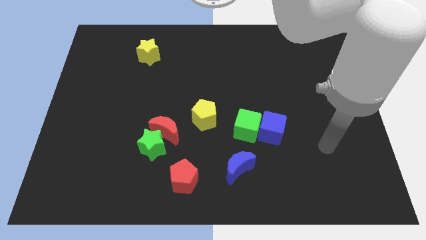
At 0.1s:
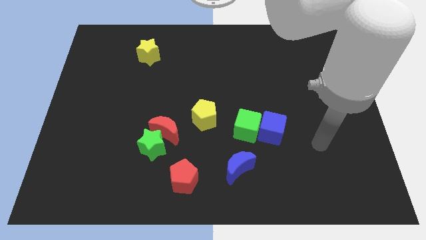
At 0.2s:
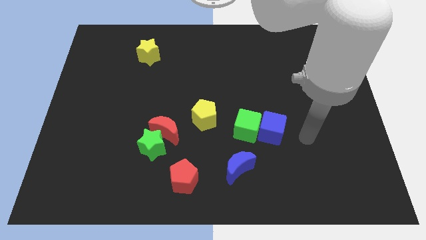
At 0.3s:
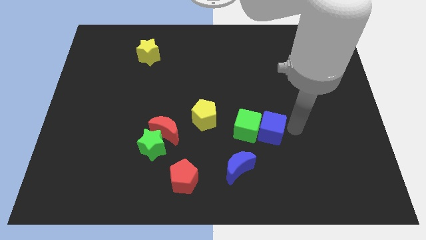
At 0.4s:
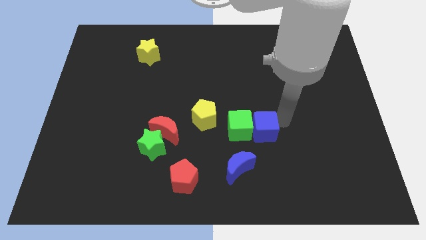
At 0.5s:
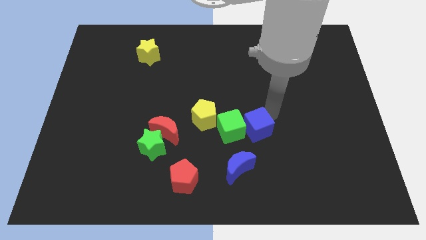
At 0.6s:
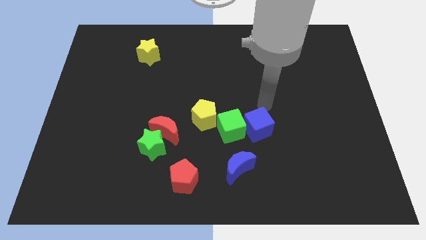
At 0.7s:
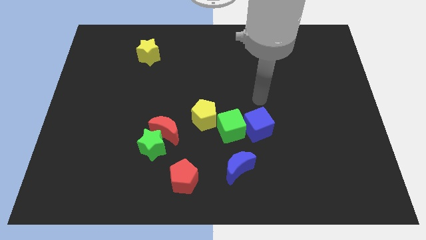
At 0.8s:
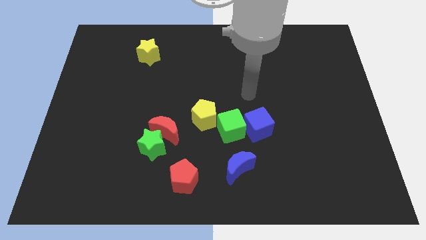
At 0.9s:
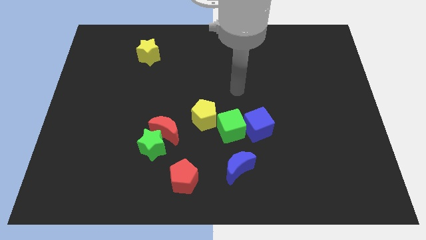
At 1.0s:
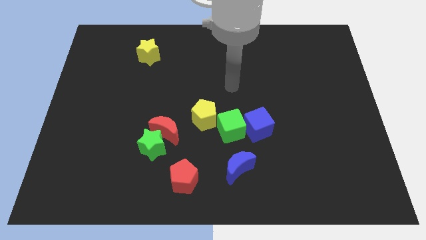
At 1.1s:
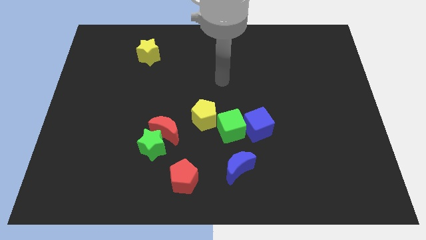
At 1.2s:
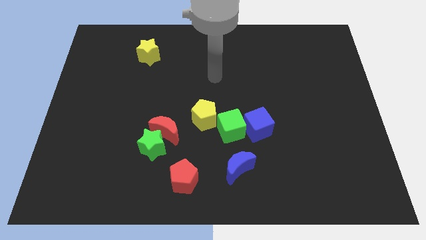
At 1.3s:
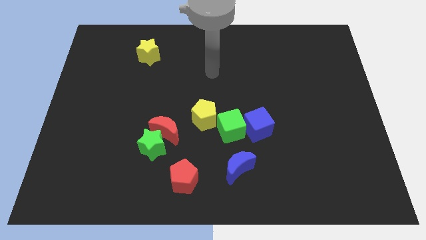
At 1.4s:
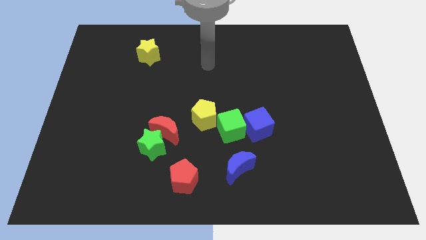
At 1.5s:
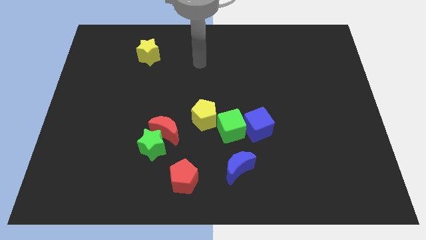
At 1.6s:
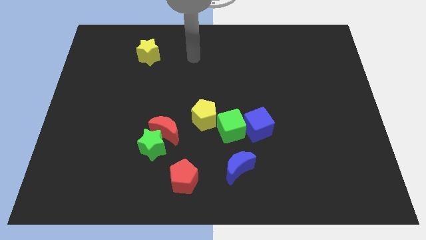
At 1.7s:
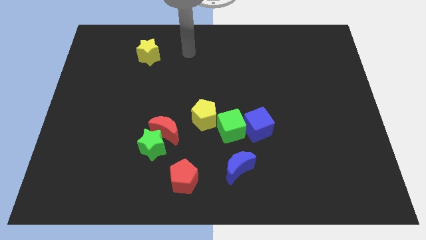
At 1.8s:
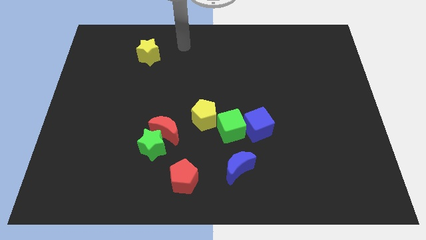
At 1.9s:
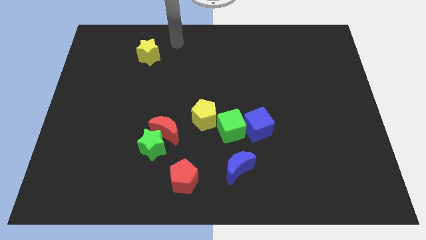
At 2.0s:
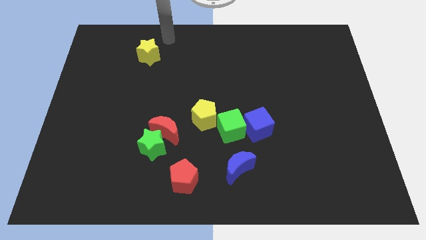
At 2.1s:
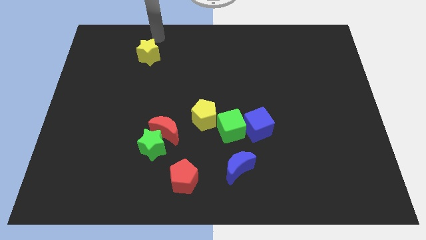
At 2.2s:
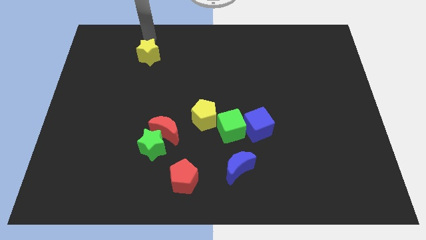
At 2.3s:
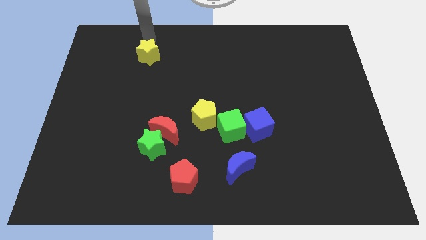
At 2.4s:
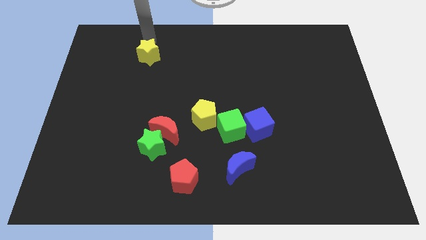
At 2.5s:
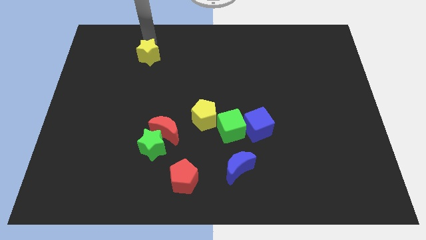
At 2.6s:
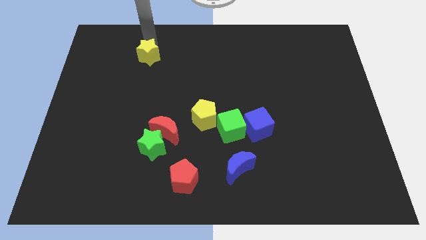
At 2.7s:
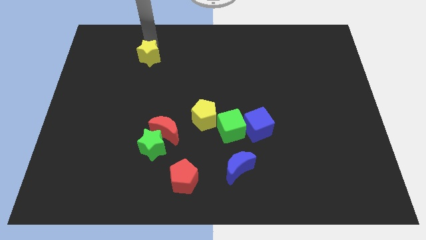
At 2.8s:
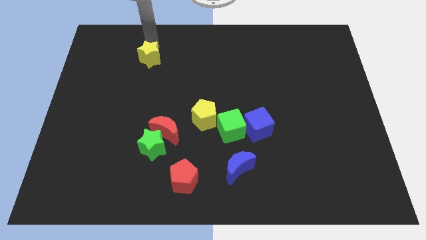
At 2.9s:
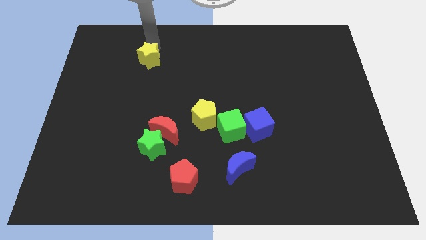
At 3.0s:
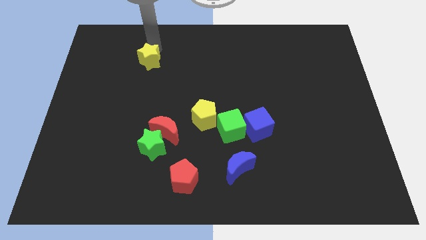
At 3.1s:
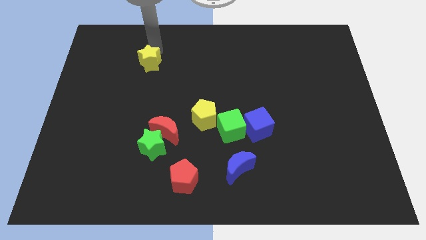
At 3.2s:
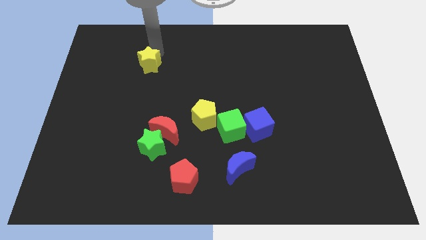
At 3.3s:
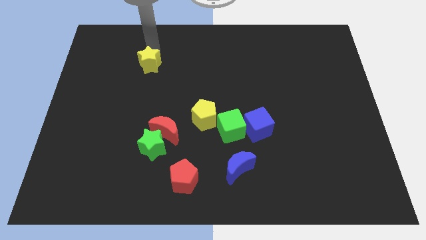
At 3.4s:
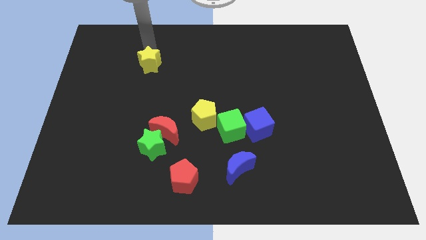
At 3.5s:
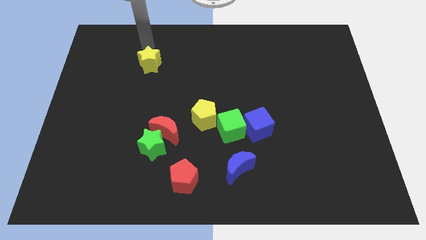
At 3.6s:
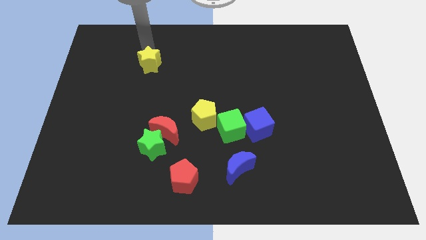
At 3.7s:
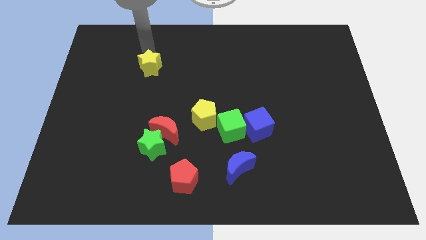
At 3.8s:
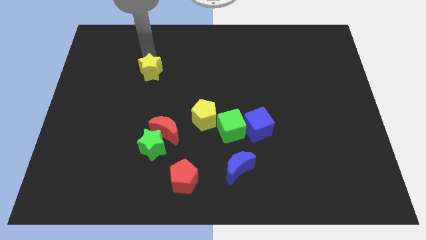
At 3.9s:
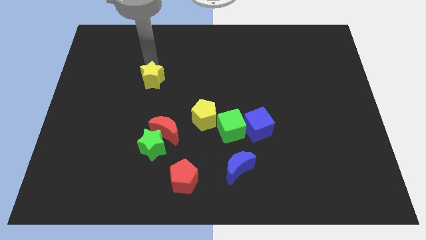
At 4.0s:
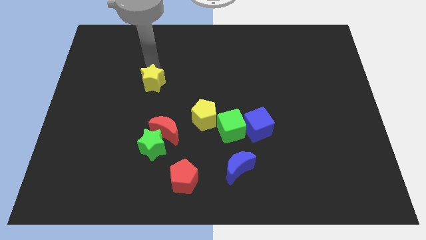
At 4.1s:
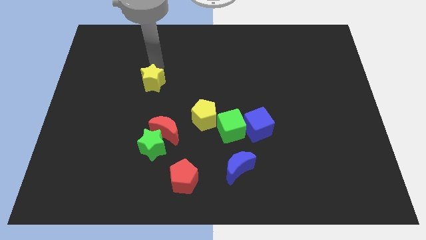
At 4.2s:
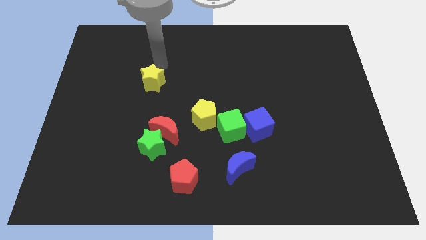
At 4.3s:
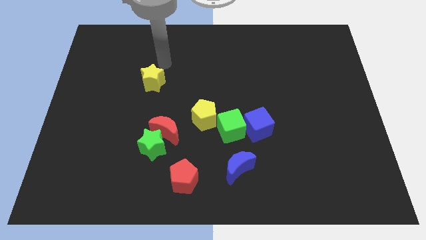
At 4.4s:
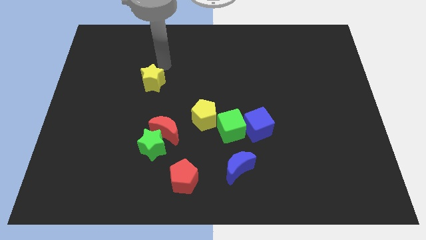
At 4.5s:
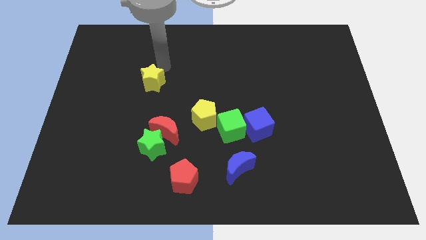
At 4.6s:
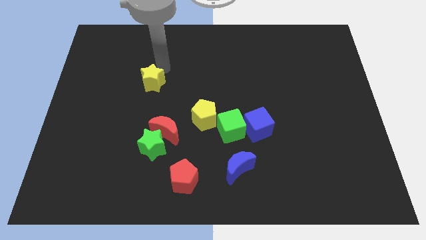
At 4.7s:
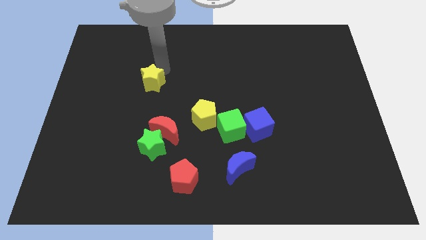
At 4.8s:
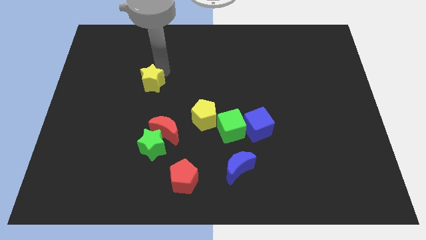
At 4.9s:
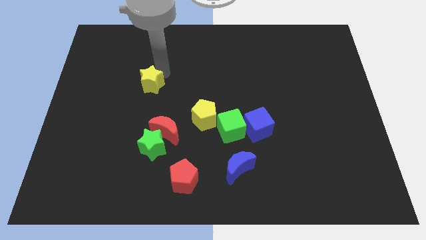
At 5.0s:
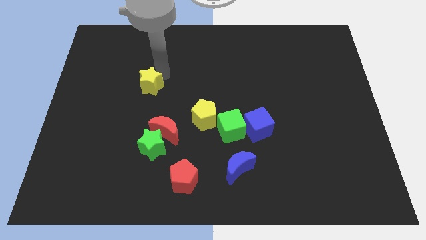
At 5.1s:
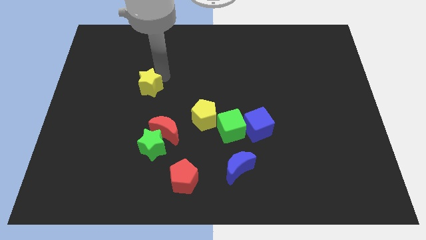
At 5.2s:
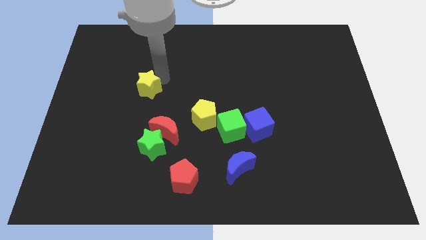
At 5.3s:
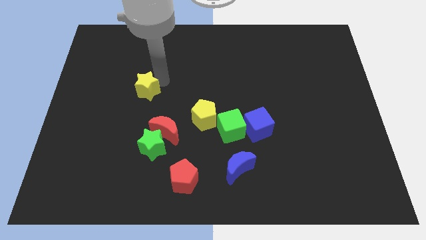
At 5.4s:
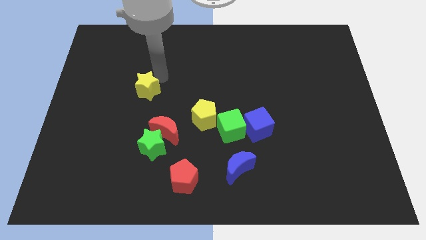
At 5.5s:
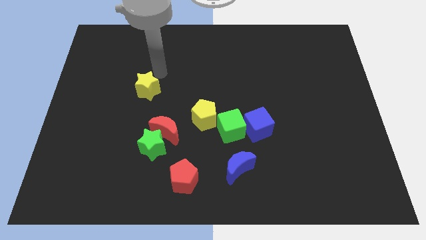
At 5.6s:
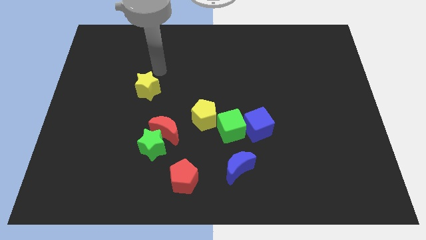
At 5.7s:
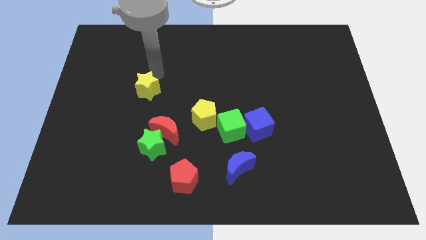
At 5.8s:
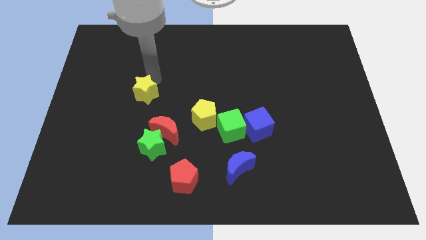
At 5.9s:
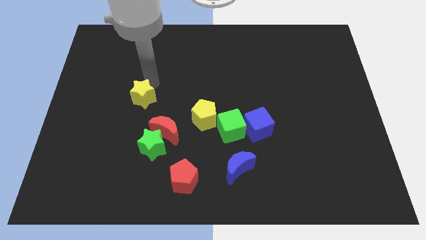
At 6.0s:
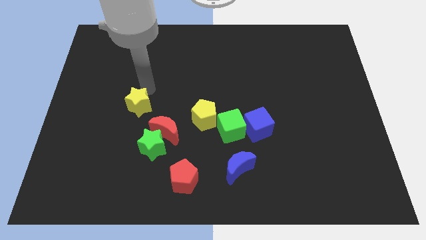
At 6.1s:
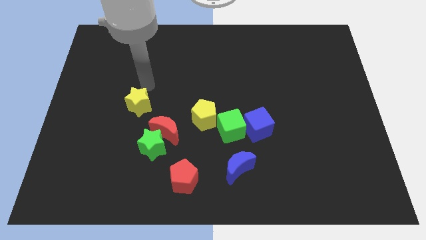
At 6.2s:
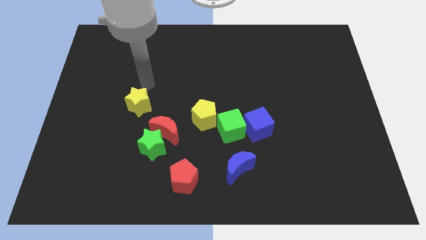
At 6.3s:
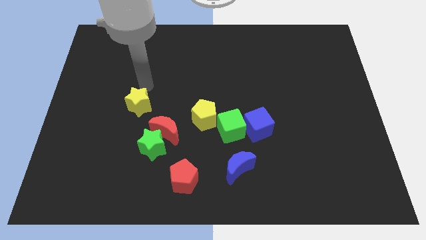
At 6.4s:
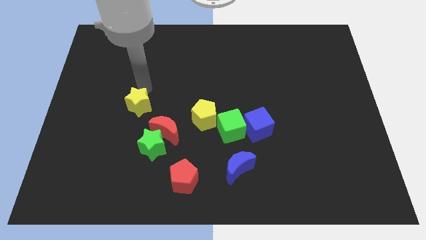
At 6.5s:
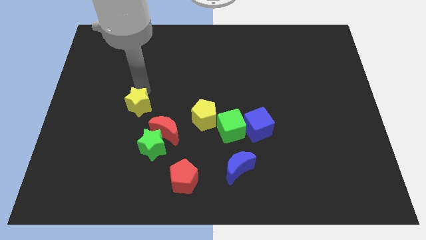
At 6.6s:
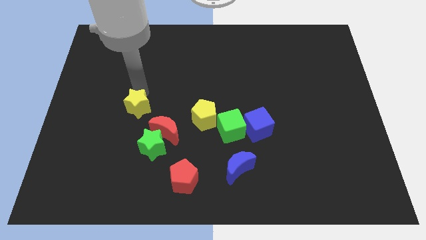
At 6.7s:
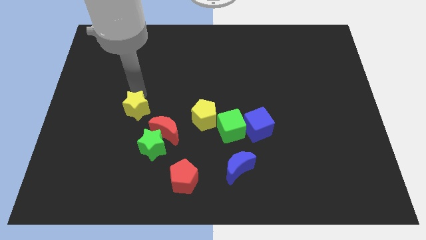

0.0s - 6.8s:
put the yellow star to the top left of the green star
